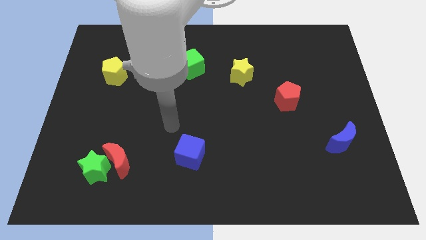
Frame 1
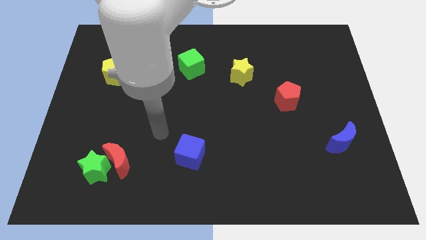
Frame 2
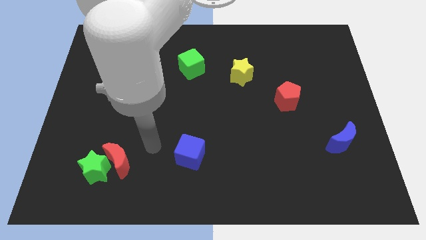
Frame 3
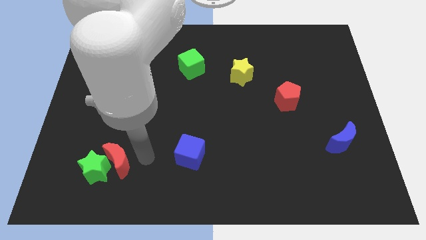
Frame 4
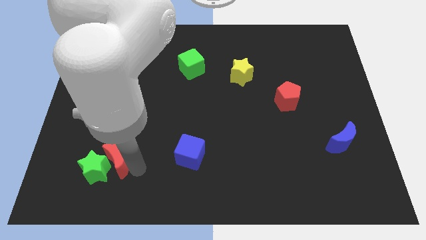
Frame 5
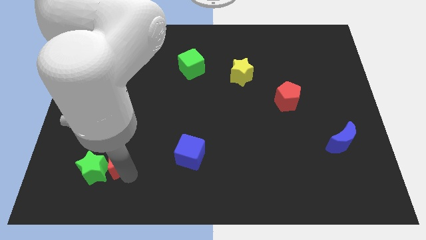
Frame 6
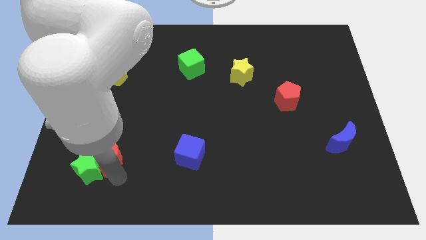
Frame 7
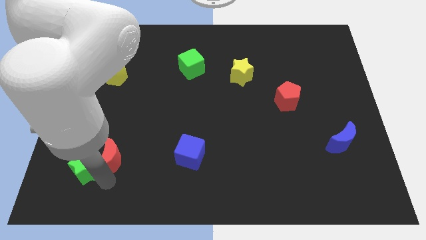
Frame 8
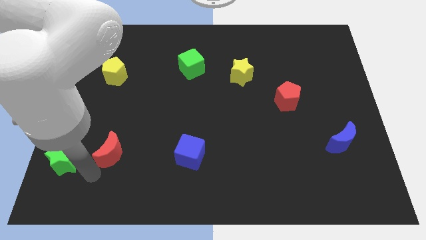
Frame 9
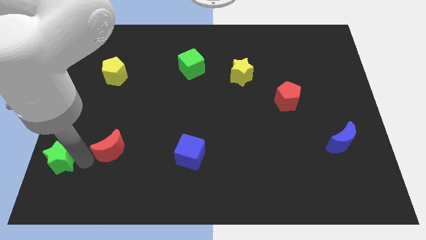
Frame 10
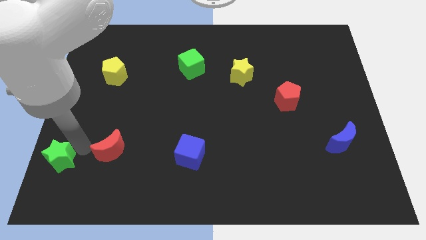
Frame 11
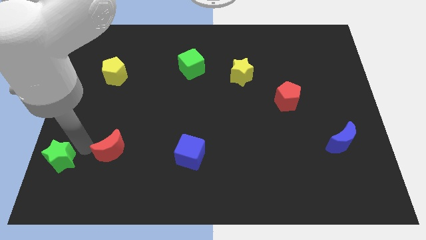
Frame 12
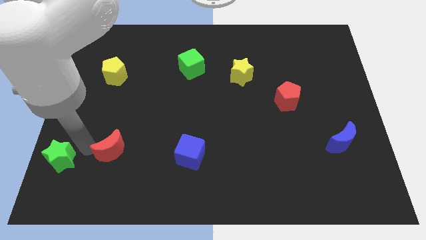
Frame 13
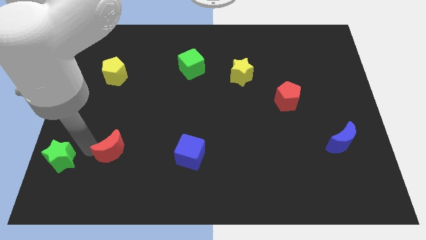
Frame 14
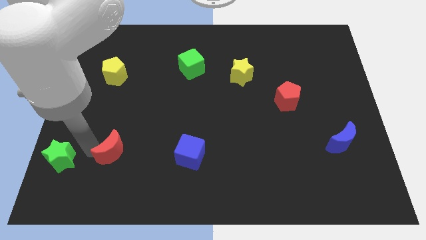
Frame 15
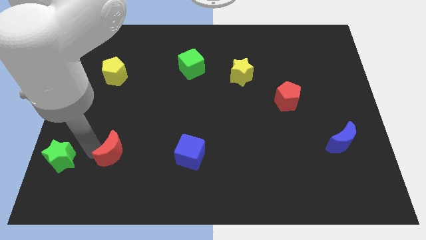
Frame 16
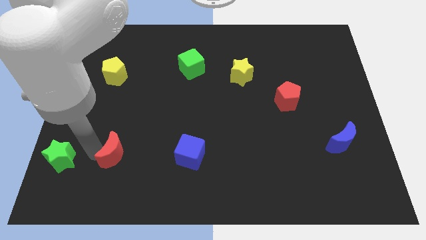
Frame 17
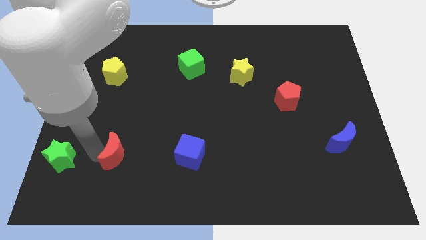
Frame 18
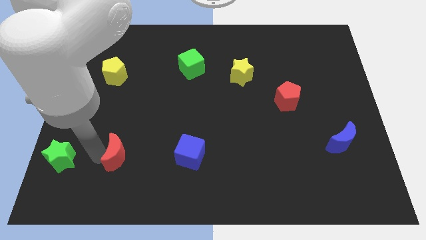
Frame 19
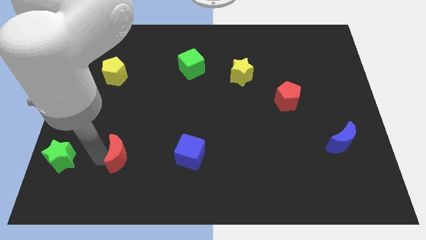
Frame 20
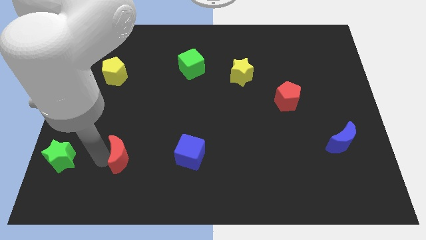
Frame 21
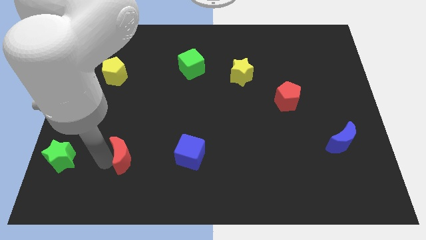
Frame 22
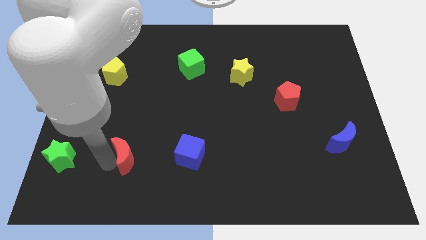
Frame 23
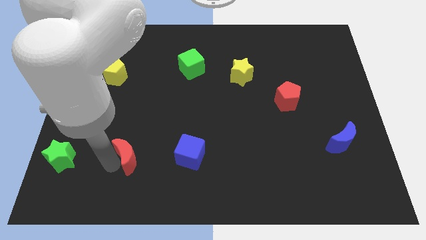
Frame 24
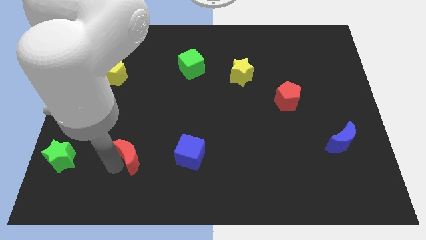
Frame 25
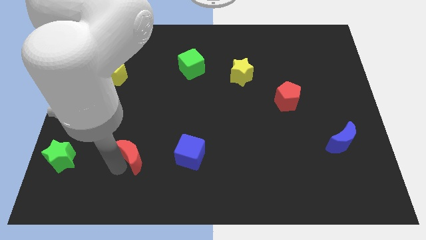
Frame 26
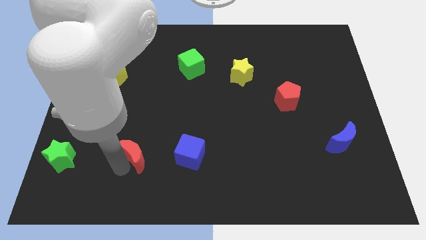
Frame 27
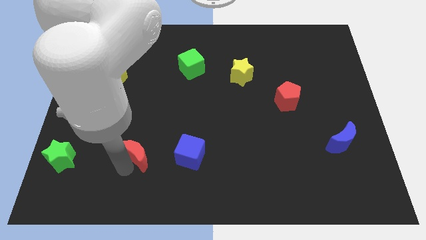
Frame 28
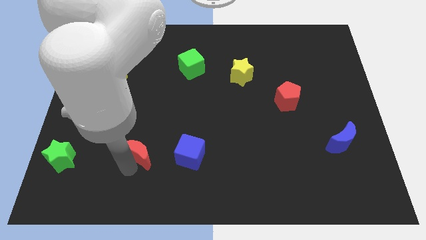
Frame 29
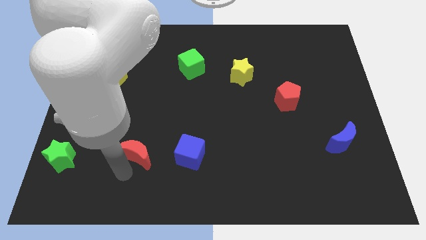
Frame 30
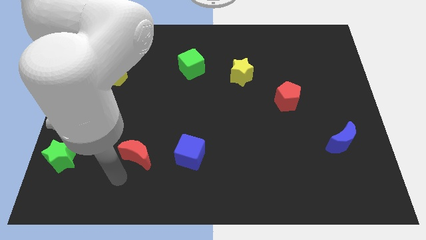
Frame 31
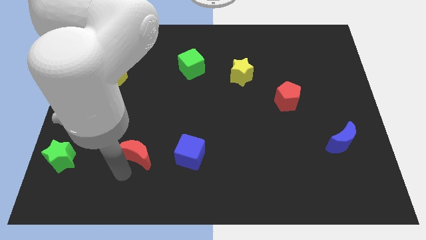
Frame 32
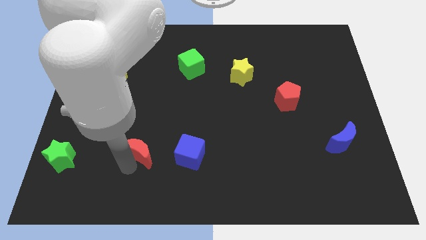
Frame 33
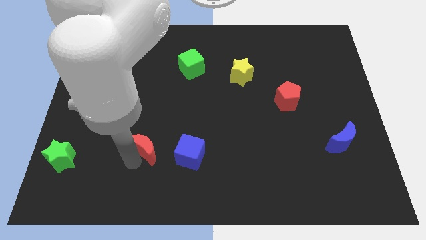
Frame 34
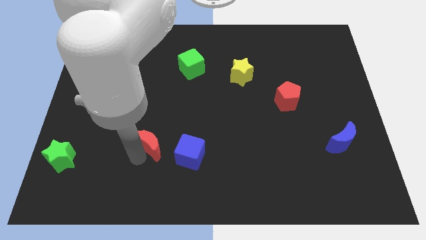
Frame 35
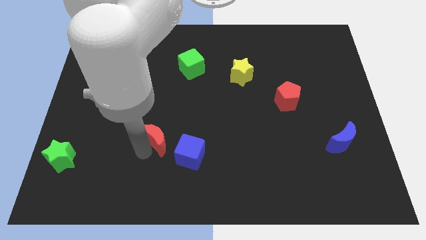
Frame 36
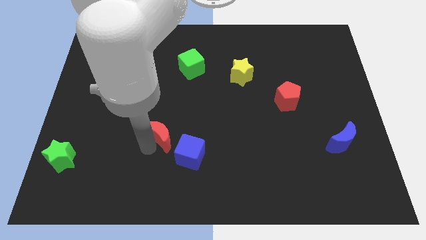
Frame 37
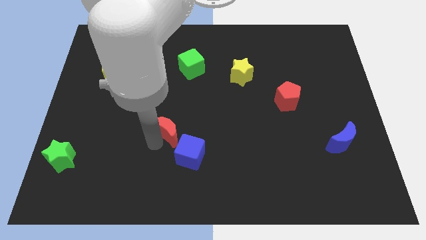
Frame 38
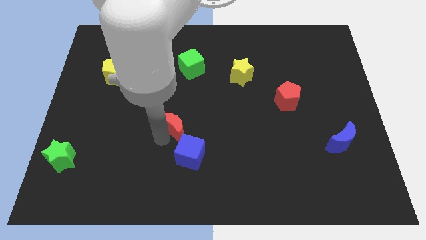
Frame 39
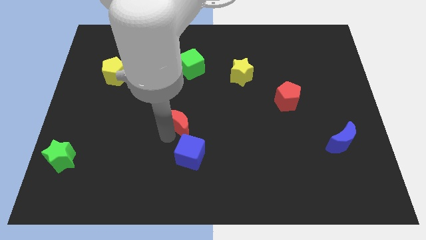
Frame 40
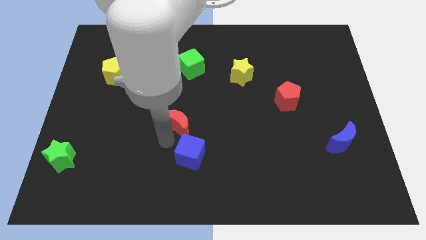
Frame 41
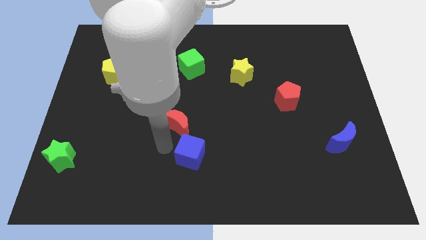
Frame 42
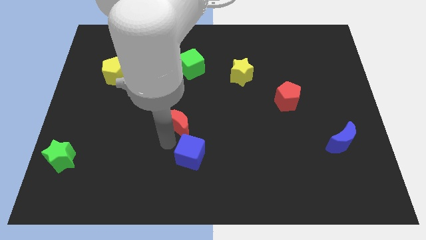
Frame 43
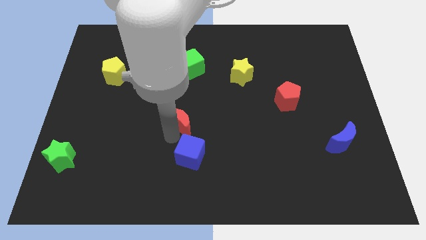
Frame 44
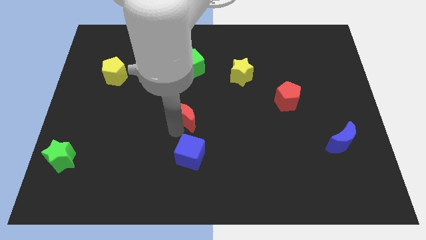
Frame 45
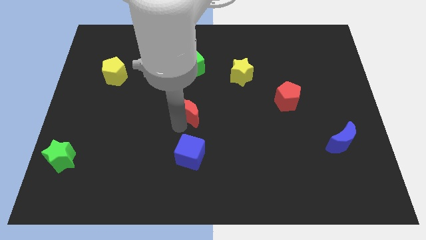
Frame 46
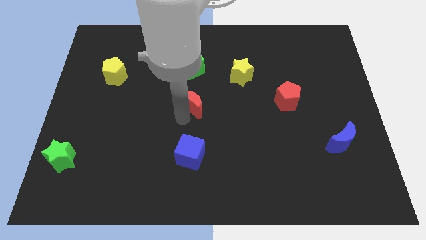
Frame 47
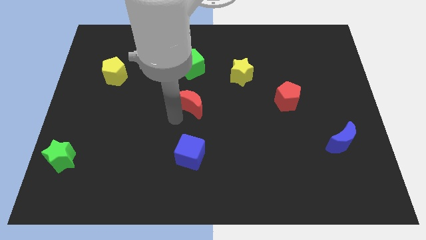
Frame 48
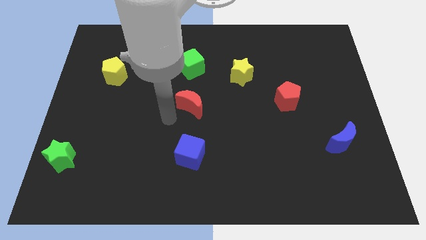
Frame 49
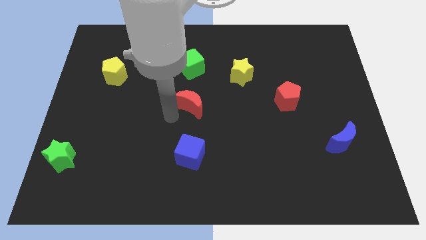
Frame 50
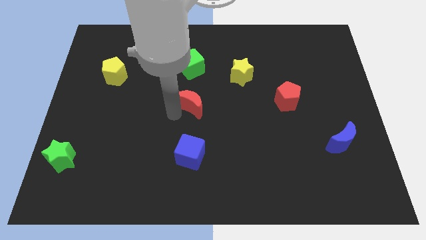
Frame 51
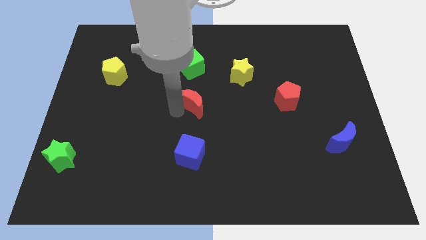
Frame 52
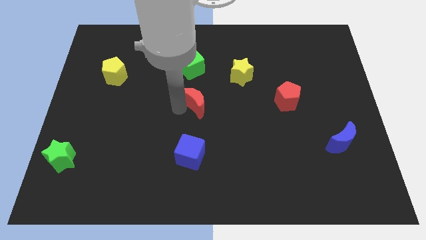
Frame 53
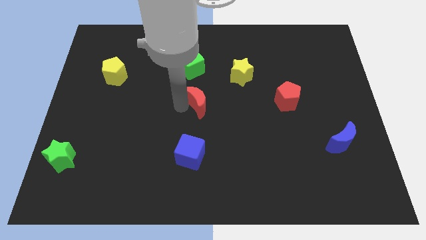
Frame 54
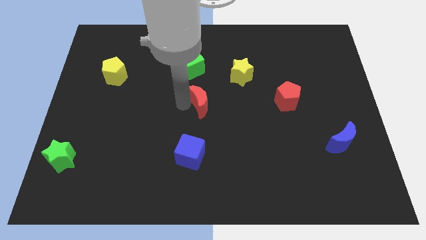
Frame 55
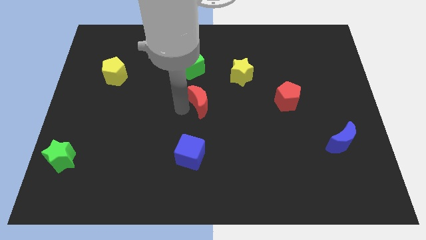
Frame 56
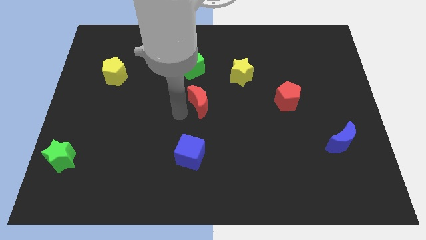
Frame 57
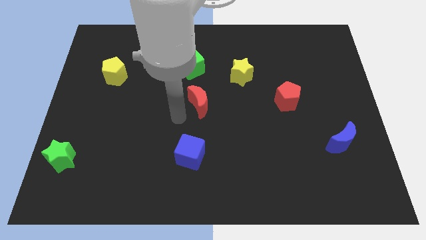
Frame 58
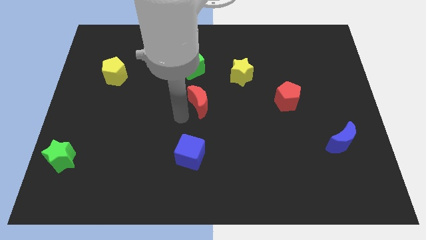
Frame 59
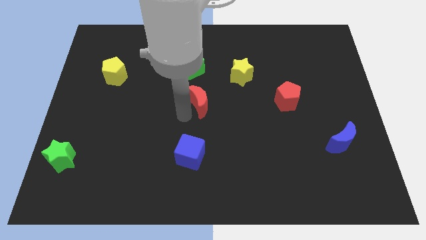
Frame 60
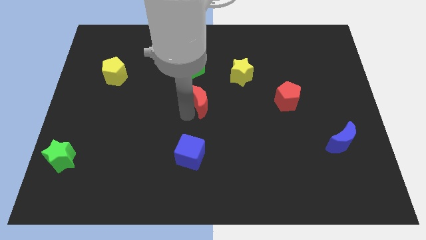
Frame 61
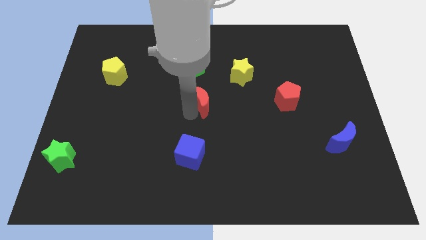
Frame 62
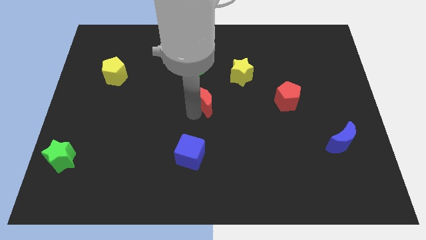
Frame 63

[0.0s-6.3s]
put the red moon diagonally down and to the left of the yellow star

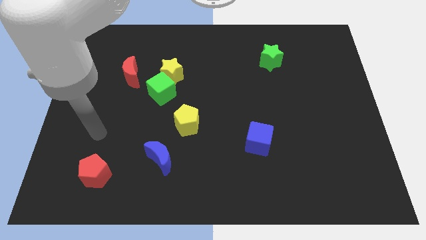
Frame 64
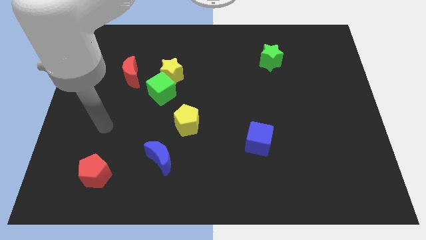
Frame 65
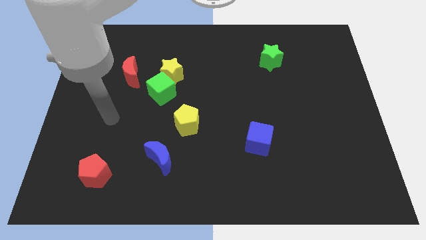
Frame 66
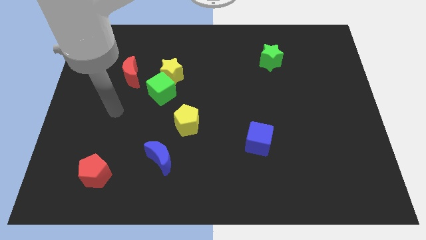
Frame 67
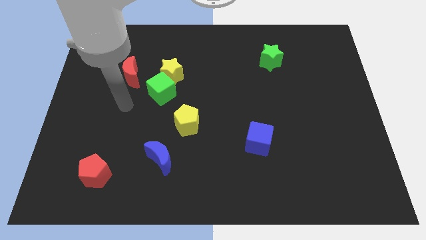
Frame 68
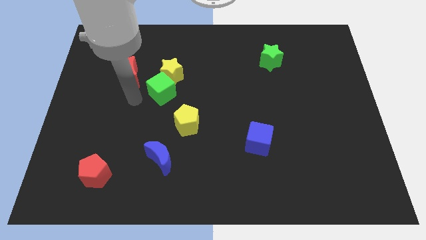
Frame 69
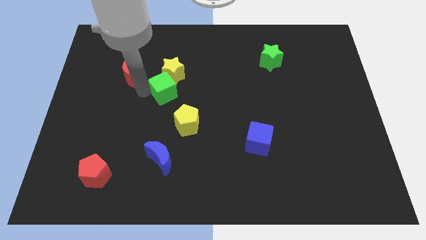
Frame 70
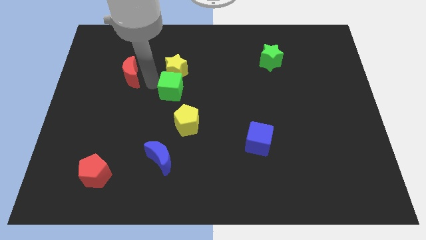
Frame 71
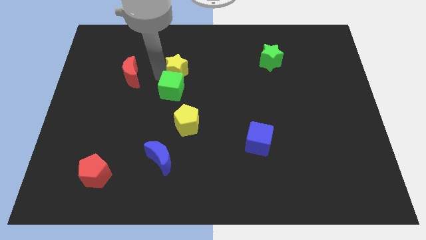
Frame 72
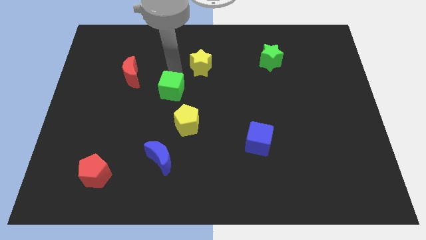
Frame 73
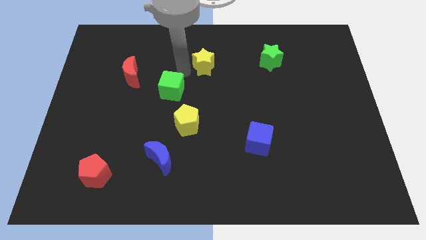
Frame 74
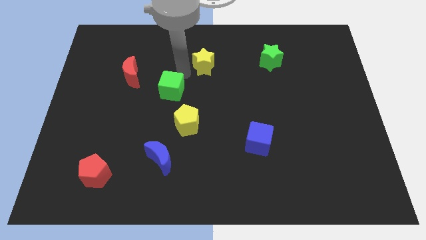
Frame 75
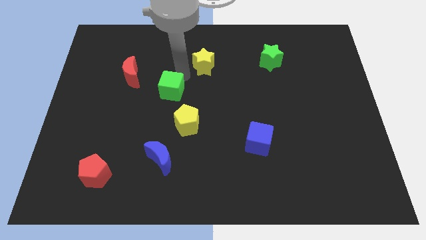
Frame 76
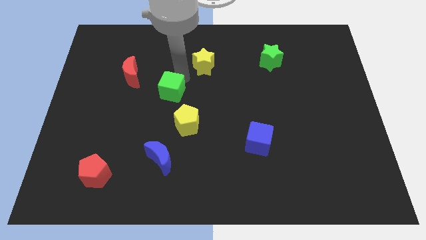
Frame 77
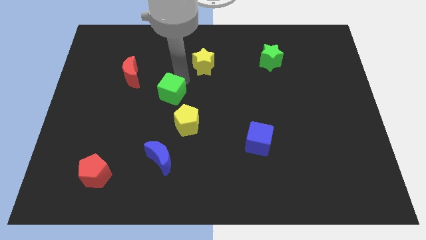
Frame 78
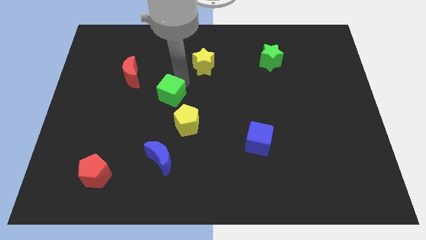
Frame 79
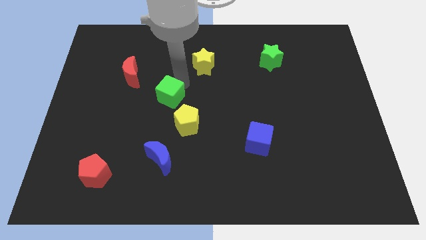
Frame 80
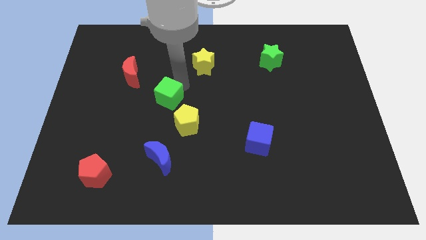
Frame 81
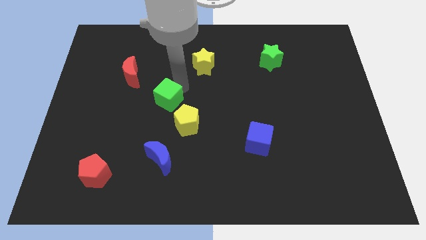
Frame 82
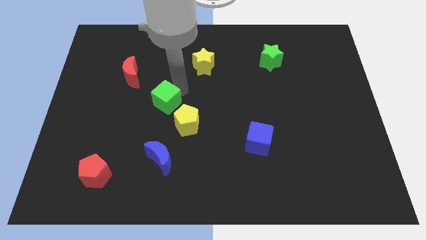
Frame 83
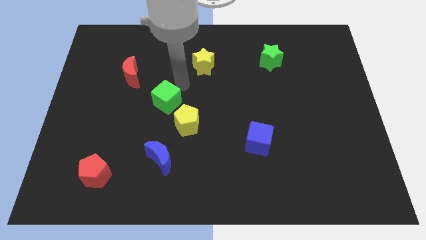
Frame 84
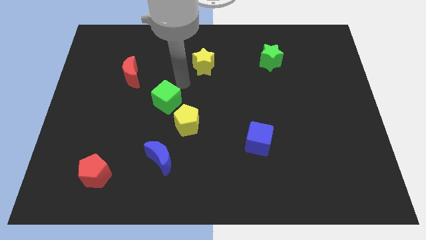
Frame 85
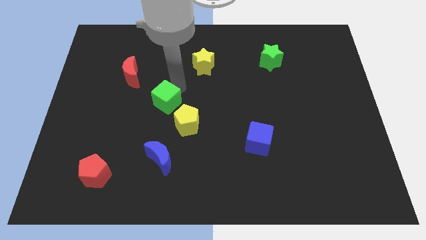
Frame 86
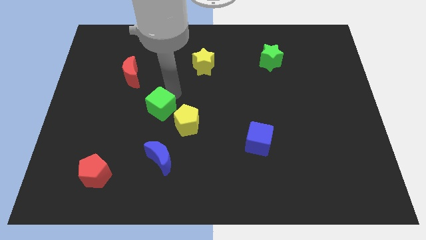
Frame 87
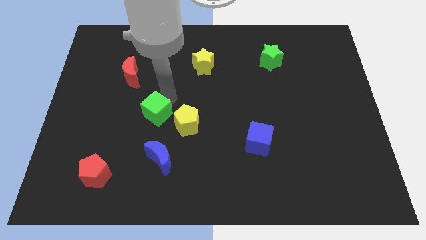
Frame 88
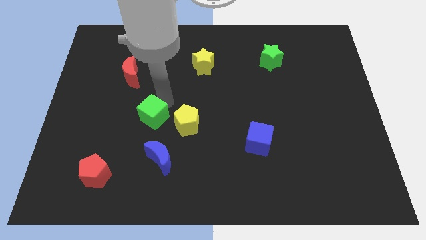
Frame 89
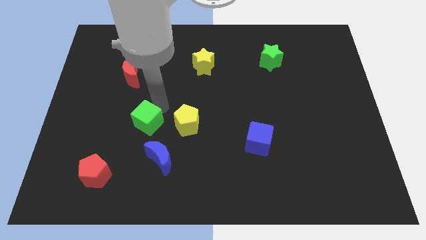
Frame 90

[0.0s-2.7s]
move the green cube to the top left of the blue moon
